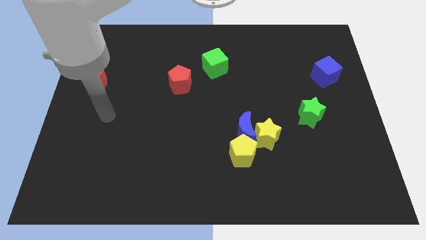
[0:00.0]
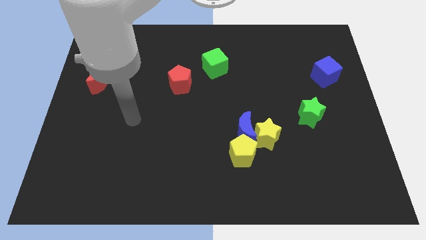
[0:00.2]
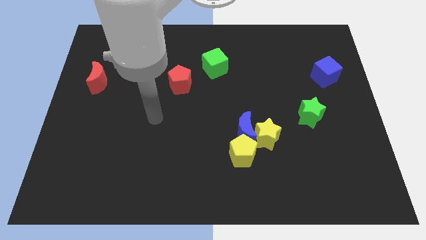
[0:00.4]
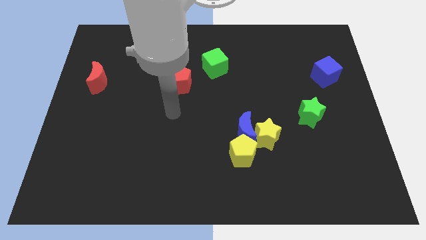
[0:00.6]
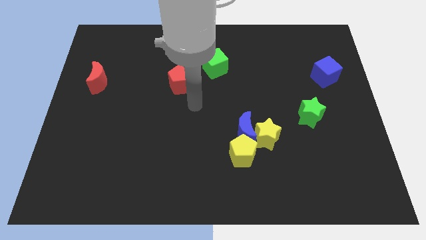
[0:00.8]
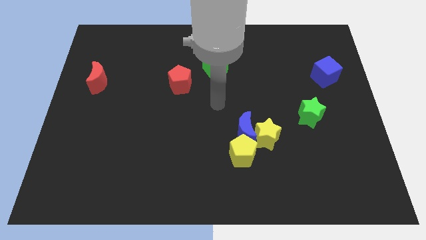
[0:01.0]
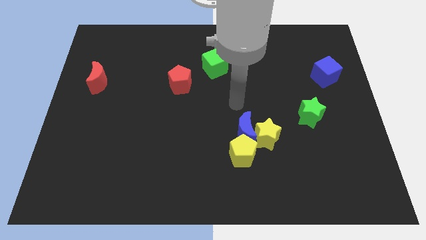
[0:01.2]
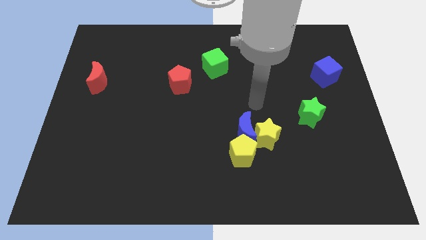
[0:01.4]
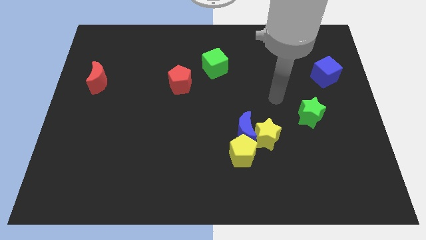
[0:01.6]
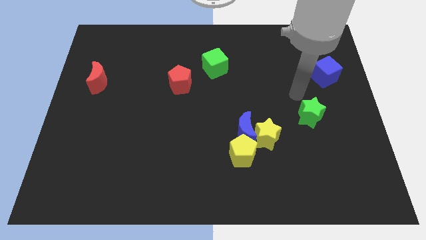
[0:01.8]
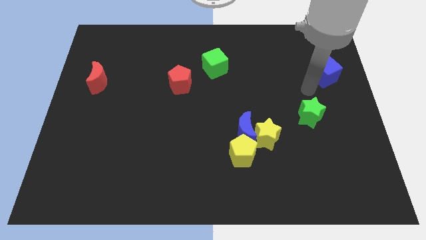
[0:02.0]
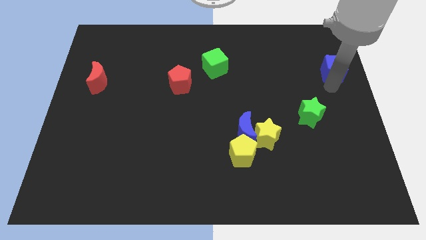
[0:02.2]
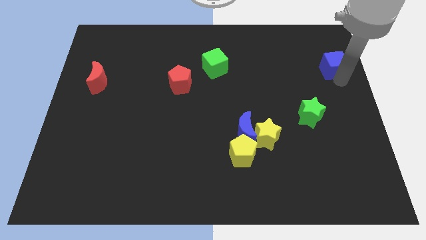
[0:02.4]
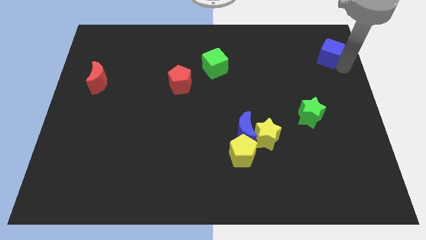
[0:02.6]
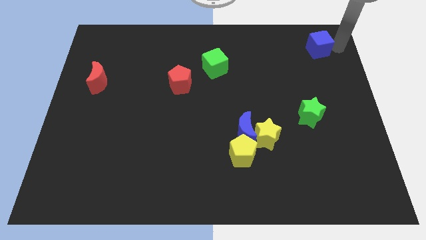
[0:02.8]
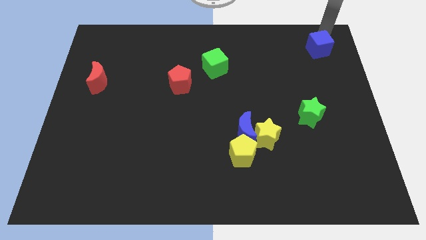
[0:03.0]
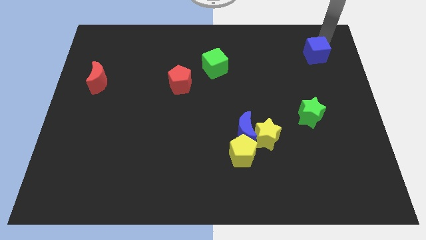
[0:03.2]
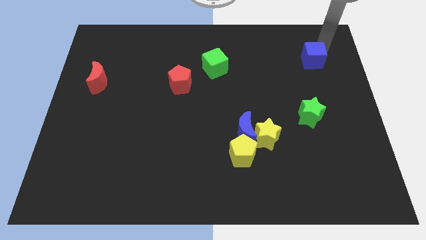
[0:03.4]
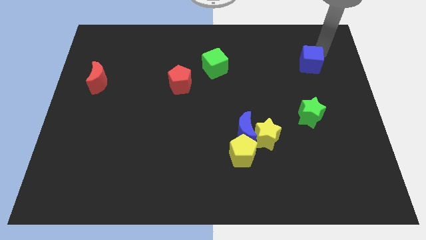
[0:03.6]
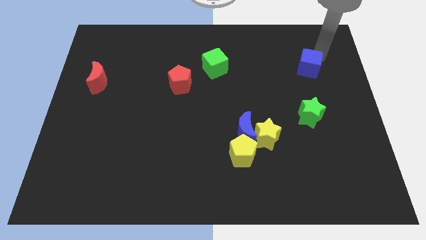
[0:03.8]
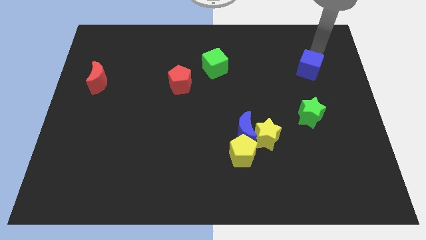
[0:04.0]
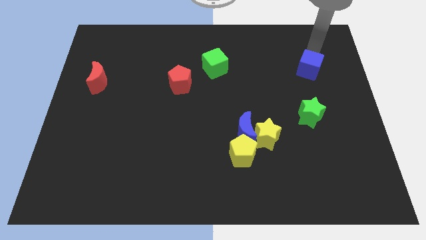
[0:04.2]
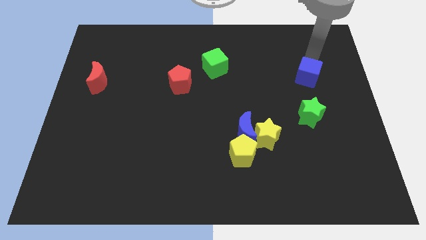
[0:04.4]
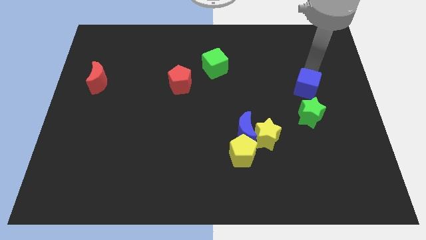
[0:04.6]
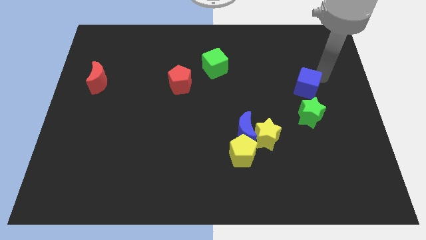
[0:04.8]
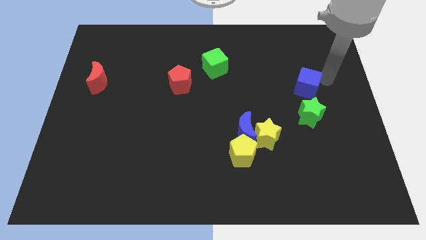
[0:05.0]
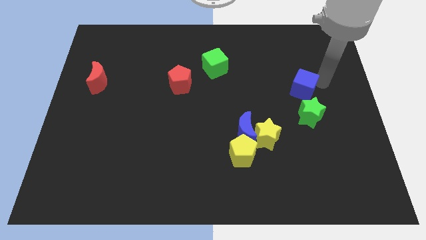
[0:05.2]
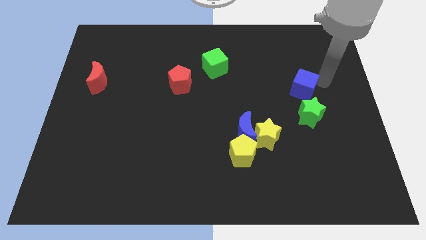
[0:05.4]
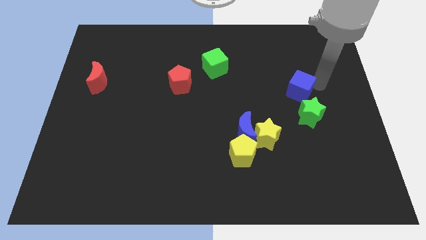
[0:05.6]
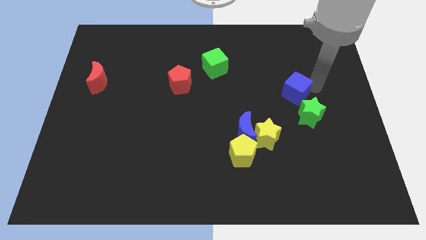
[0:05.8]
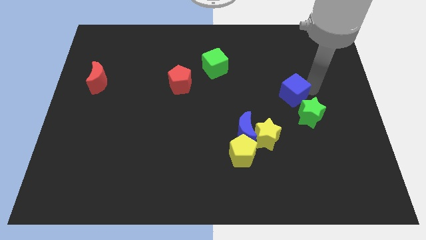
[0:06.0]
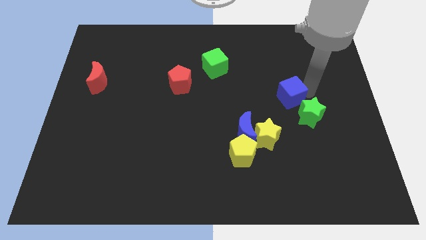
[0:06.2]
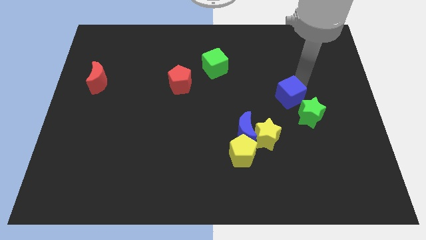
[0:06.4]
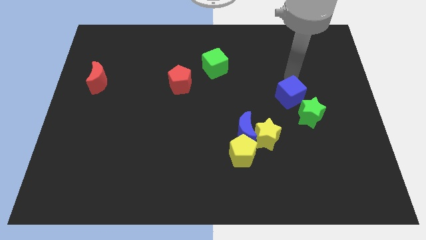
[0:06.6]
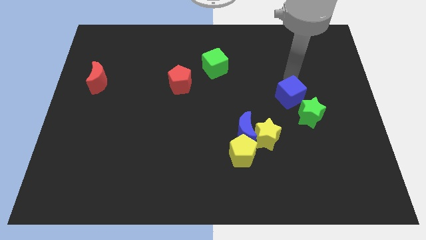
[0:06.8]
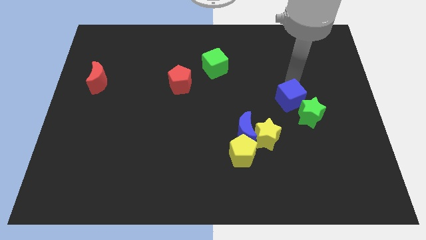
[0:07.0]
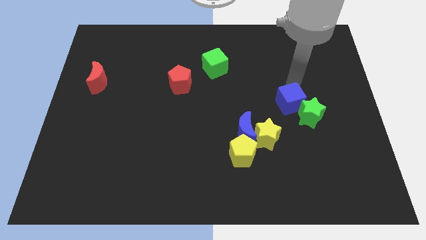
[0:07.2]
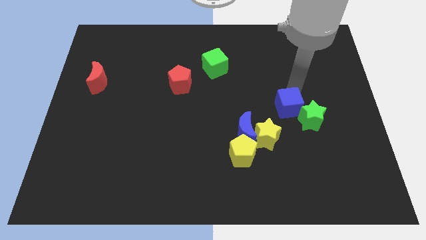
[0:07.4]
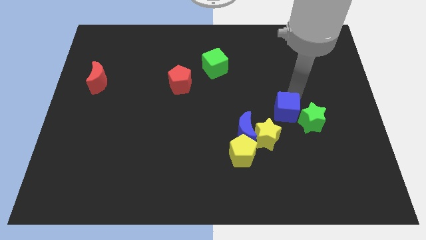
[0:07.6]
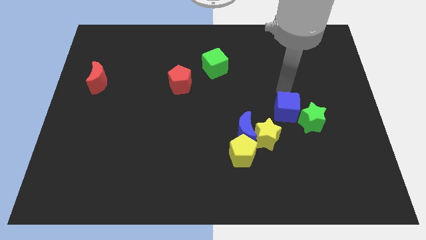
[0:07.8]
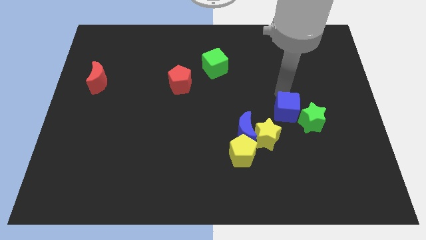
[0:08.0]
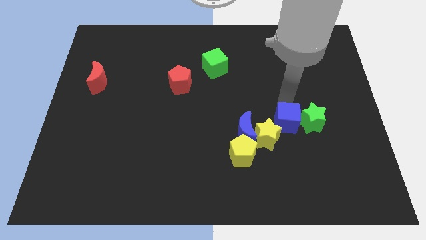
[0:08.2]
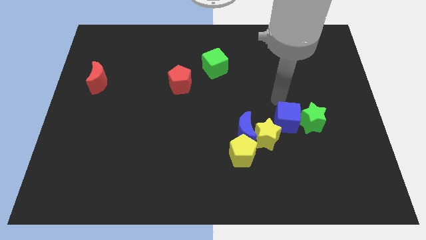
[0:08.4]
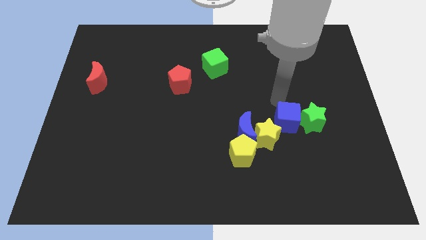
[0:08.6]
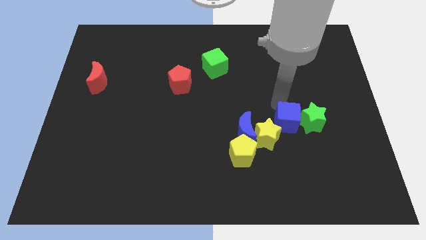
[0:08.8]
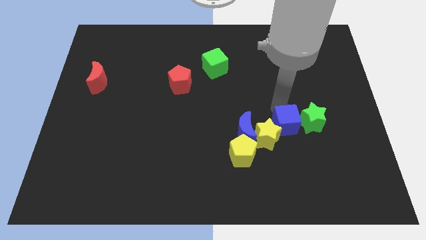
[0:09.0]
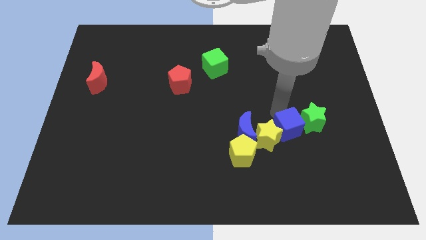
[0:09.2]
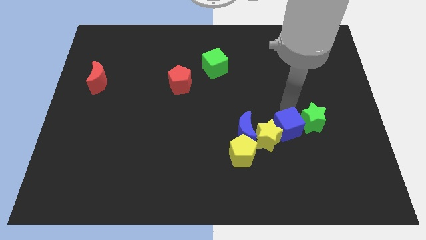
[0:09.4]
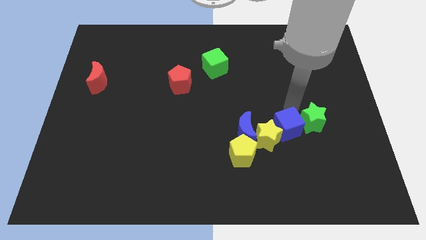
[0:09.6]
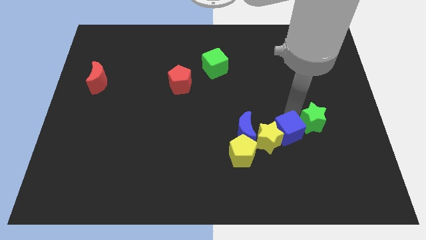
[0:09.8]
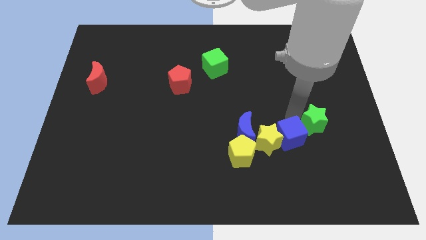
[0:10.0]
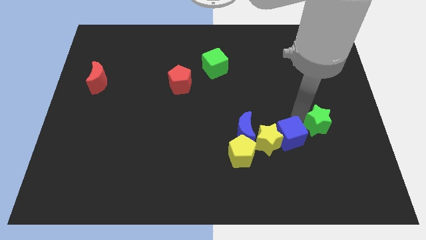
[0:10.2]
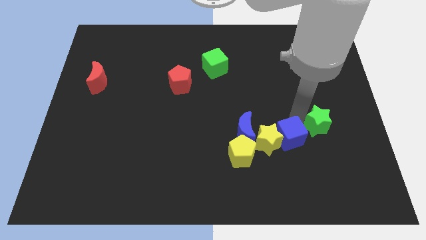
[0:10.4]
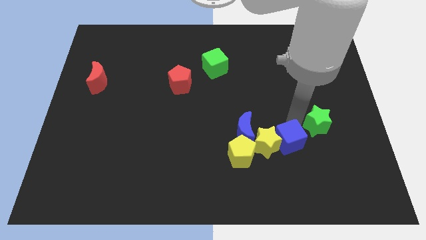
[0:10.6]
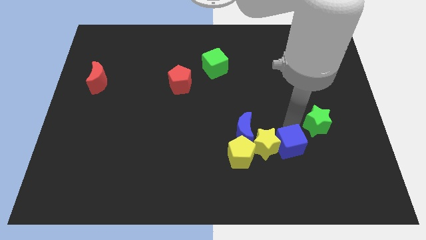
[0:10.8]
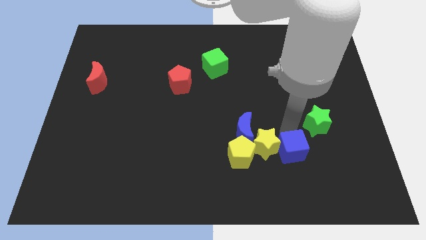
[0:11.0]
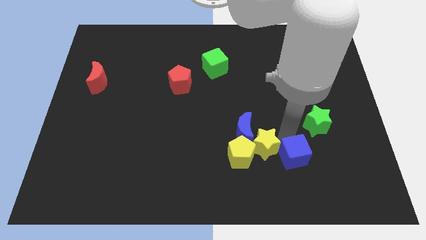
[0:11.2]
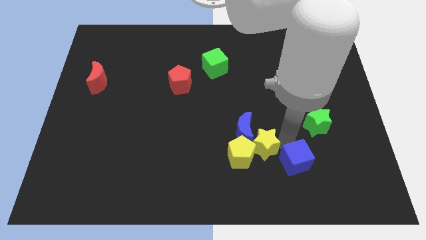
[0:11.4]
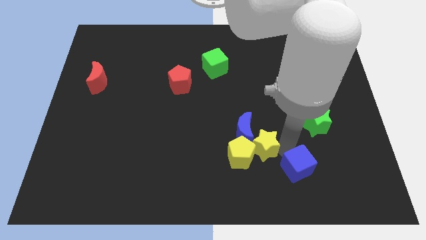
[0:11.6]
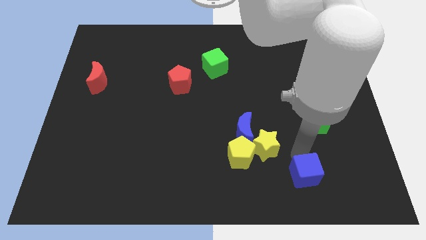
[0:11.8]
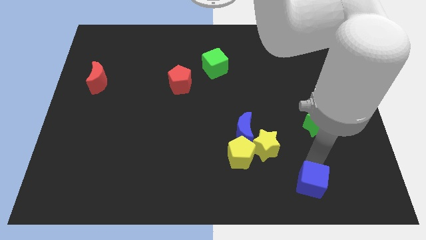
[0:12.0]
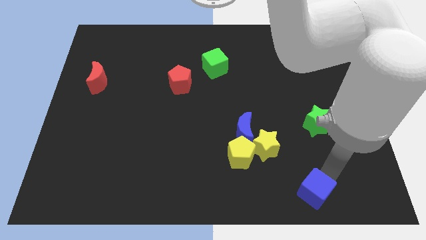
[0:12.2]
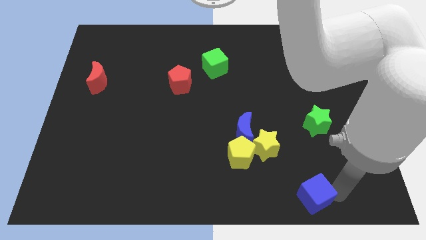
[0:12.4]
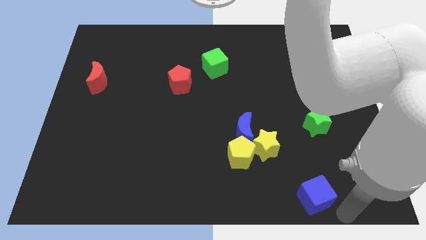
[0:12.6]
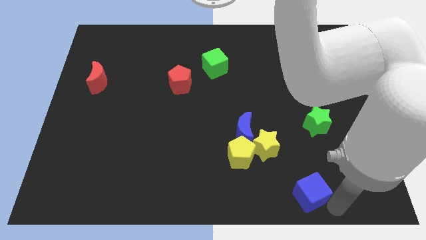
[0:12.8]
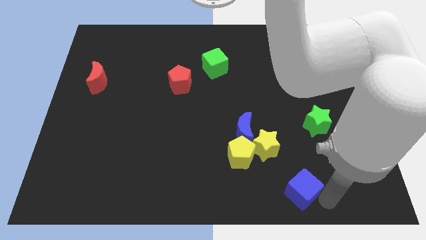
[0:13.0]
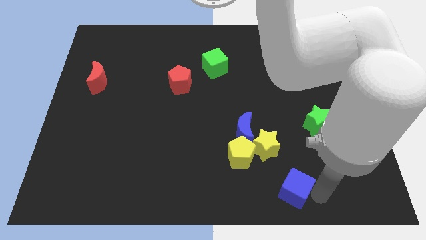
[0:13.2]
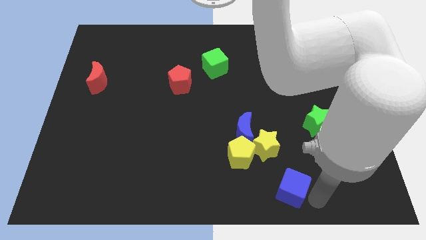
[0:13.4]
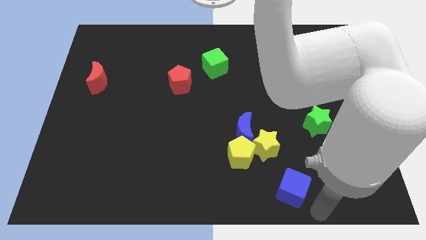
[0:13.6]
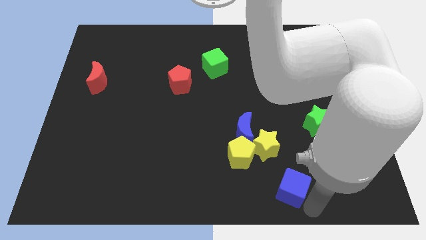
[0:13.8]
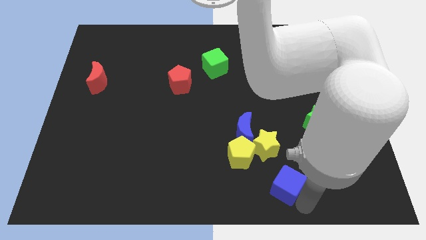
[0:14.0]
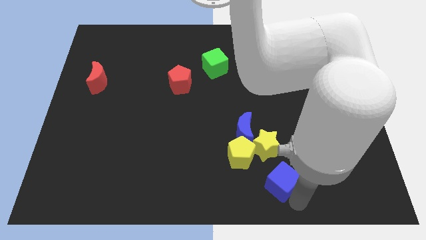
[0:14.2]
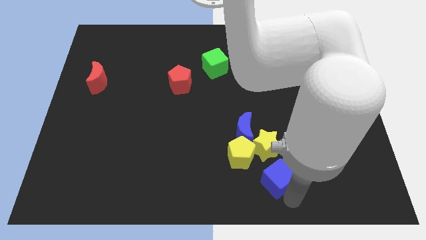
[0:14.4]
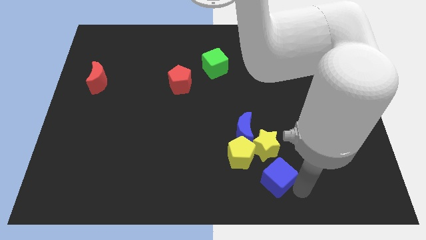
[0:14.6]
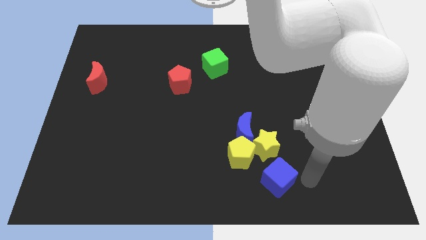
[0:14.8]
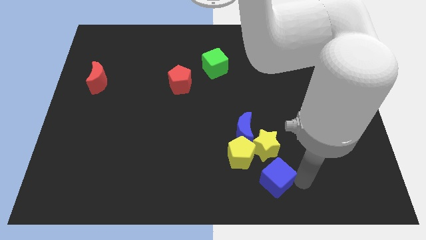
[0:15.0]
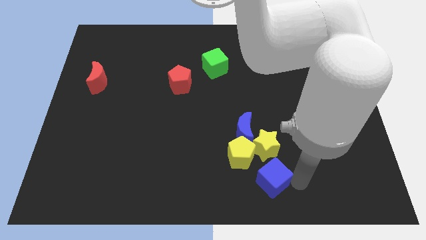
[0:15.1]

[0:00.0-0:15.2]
put the blue cube to the bottom side
